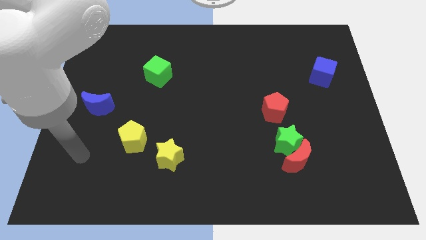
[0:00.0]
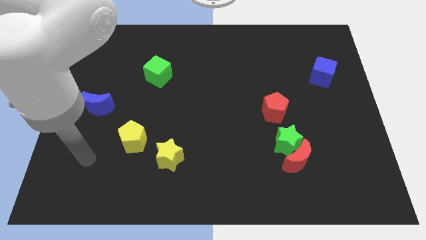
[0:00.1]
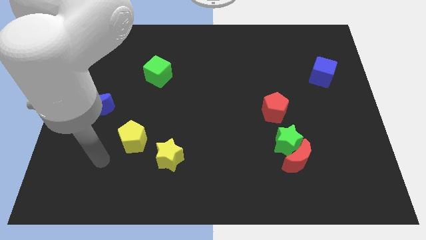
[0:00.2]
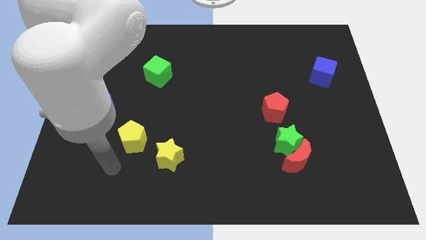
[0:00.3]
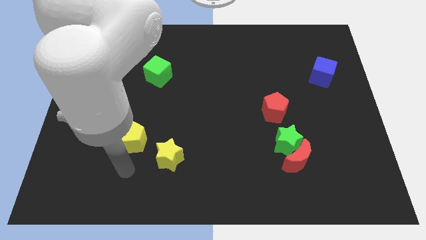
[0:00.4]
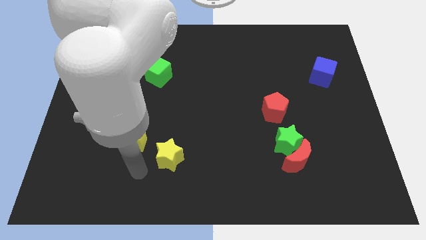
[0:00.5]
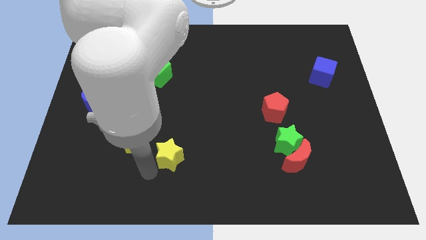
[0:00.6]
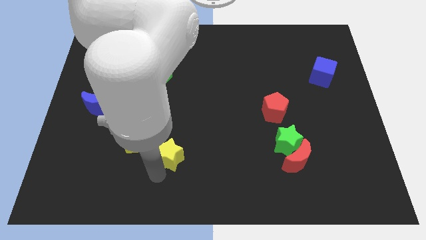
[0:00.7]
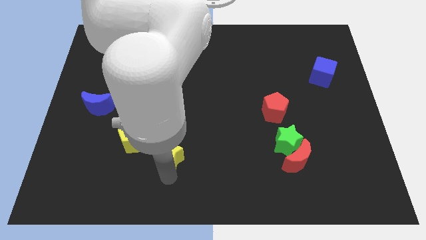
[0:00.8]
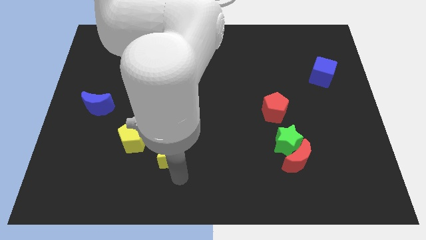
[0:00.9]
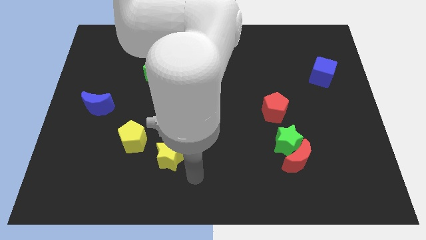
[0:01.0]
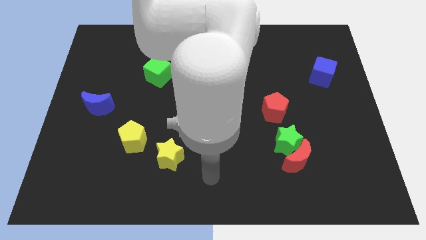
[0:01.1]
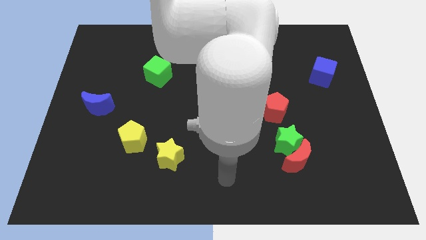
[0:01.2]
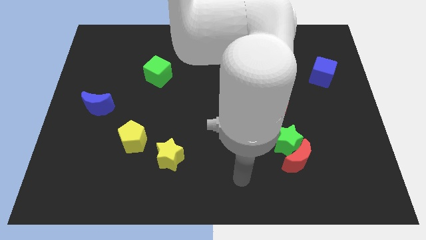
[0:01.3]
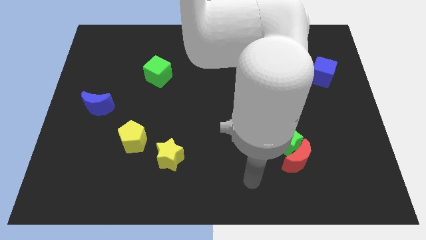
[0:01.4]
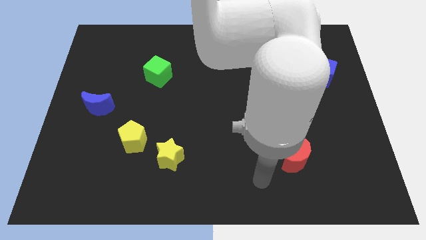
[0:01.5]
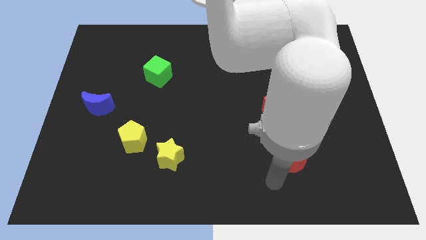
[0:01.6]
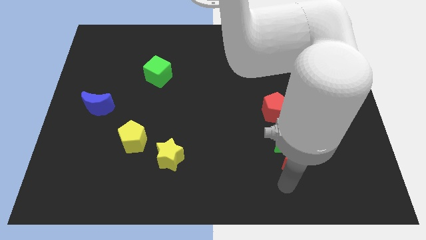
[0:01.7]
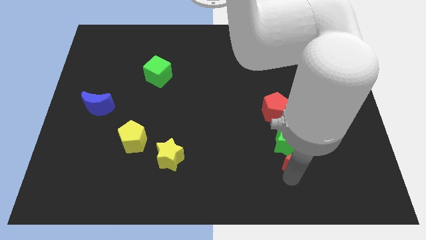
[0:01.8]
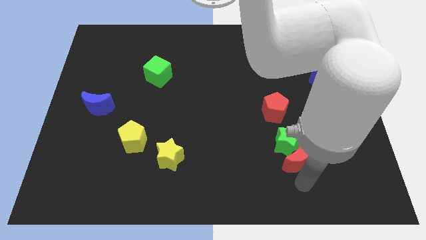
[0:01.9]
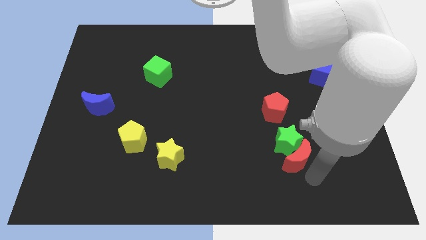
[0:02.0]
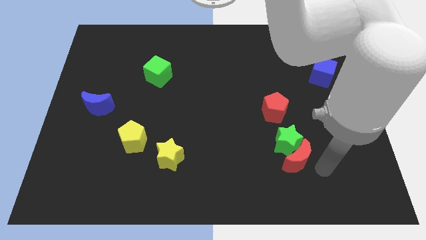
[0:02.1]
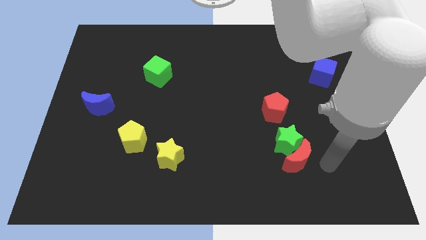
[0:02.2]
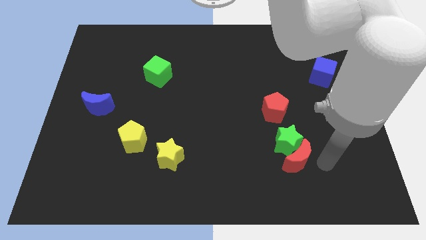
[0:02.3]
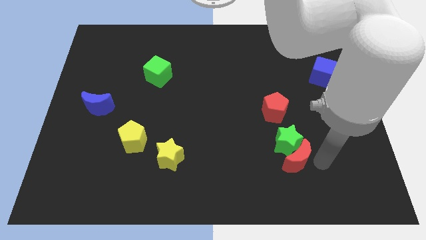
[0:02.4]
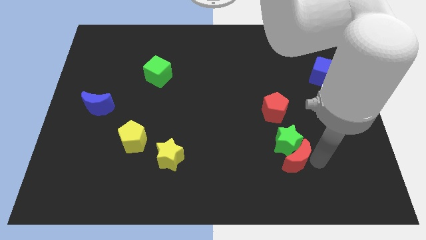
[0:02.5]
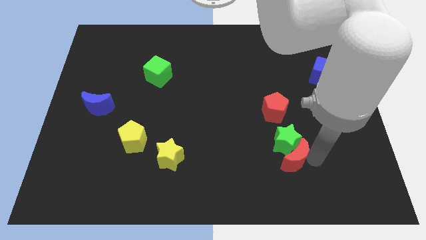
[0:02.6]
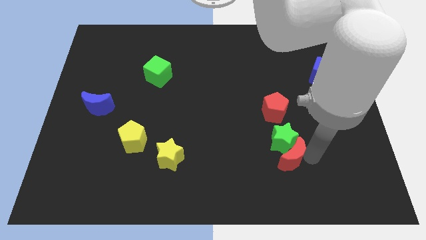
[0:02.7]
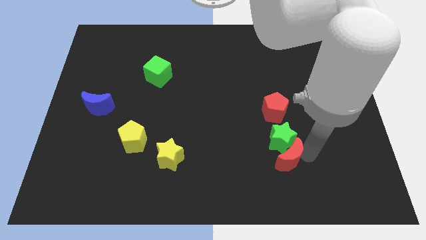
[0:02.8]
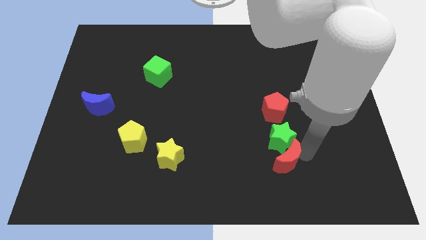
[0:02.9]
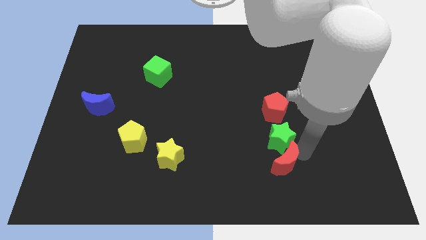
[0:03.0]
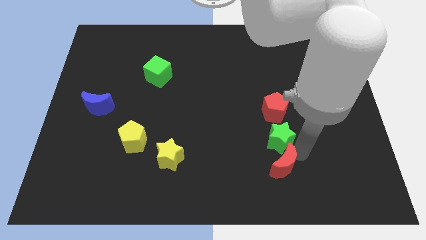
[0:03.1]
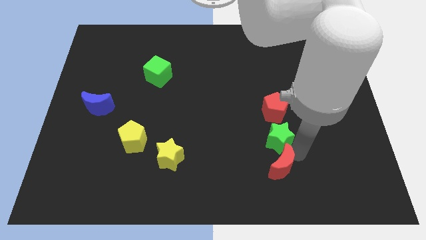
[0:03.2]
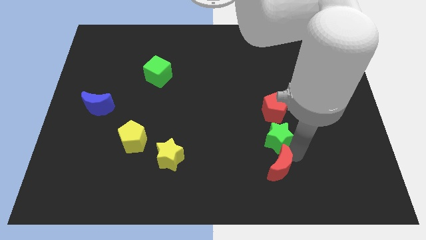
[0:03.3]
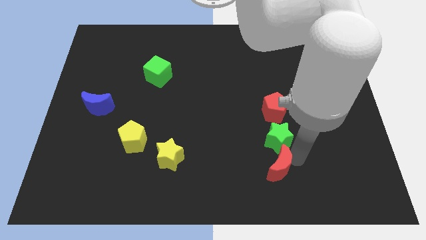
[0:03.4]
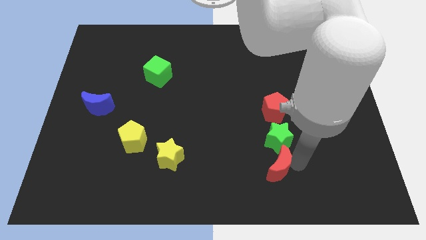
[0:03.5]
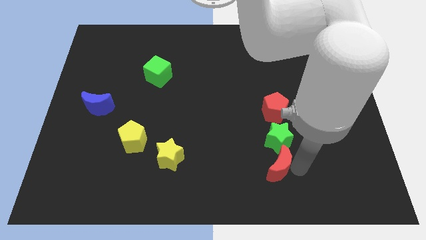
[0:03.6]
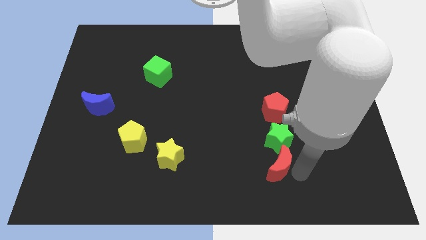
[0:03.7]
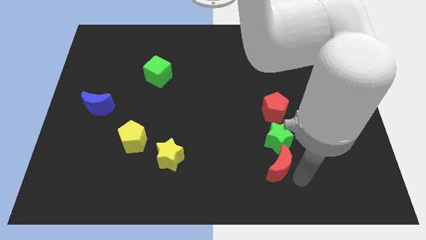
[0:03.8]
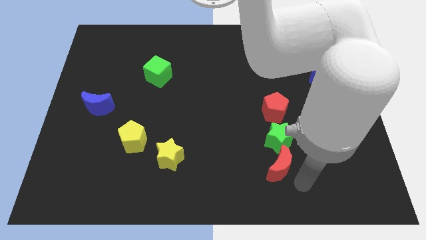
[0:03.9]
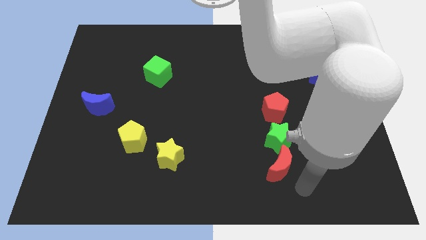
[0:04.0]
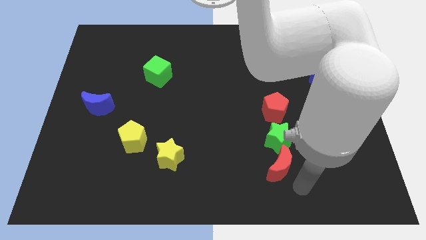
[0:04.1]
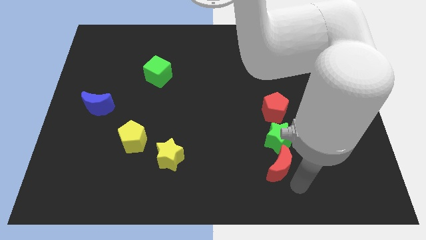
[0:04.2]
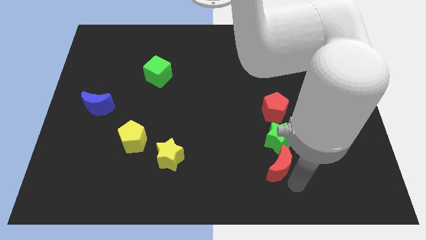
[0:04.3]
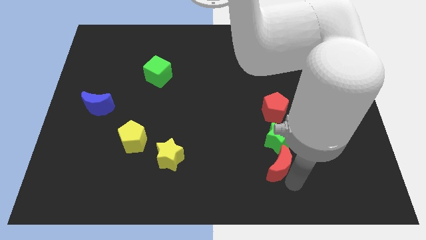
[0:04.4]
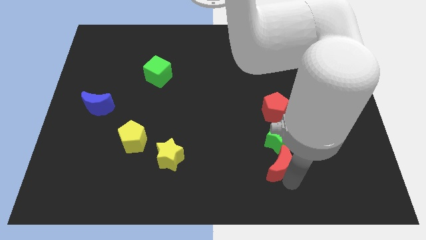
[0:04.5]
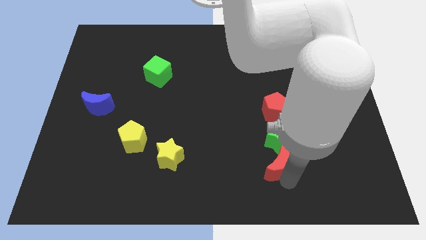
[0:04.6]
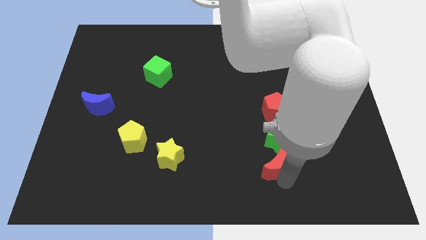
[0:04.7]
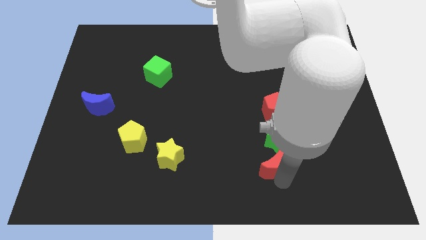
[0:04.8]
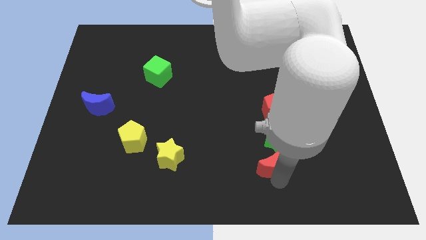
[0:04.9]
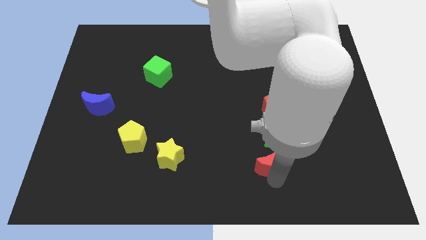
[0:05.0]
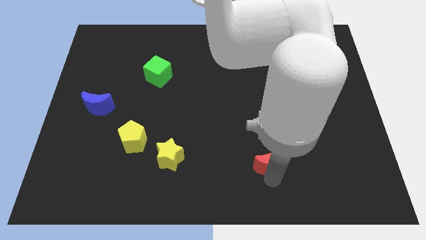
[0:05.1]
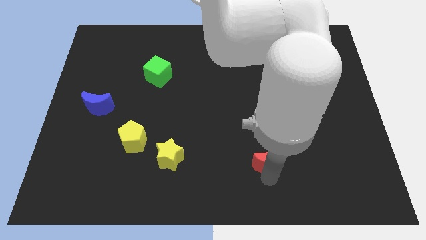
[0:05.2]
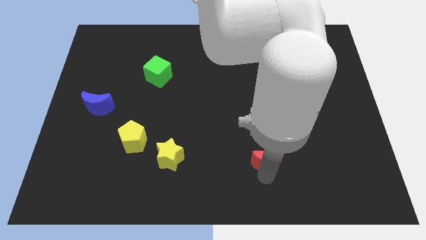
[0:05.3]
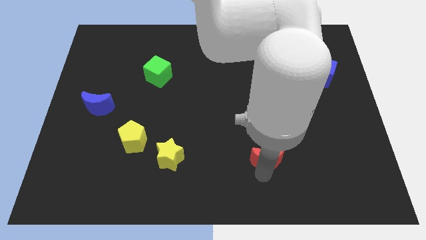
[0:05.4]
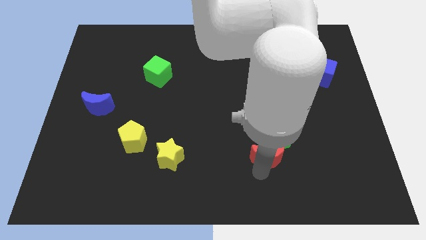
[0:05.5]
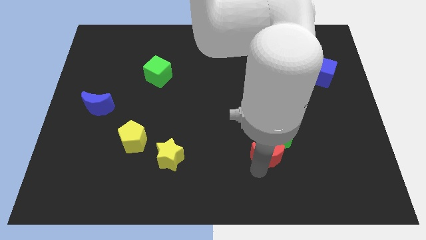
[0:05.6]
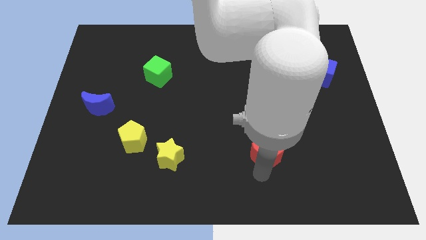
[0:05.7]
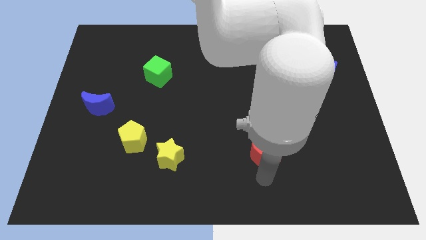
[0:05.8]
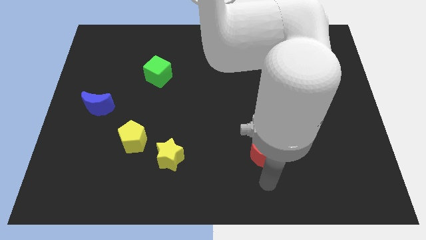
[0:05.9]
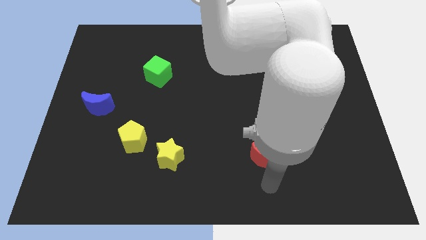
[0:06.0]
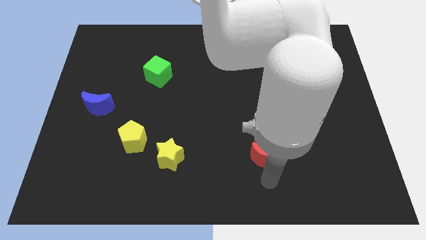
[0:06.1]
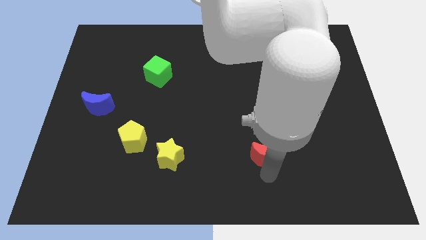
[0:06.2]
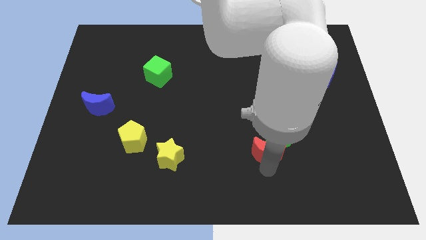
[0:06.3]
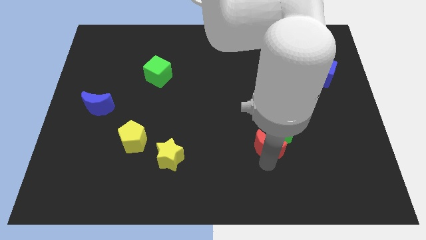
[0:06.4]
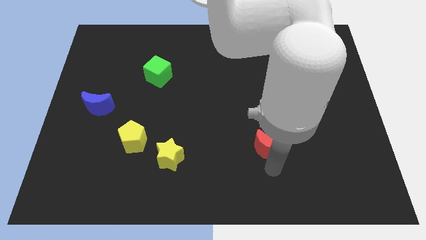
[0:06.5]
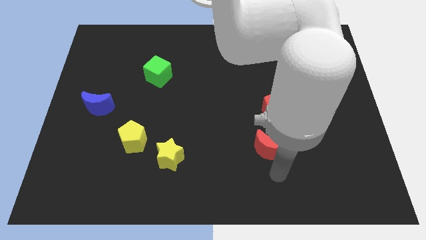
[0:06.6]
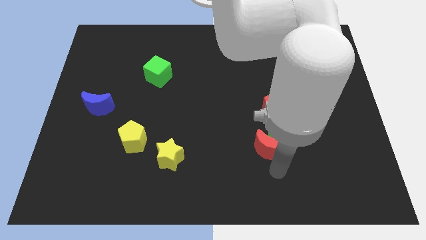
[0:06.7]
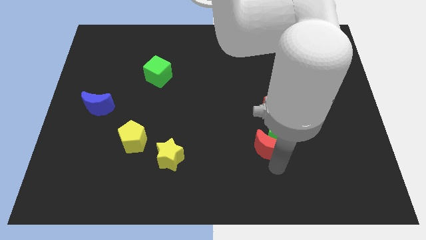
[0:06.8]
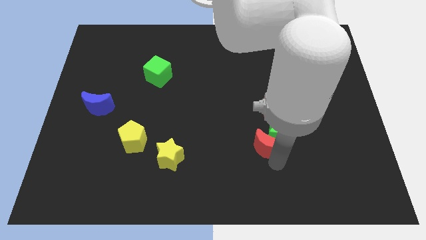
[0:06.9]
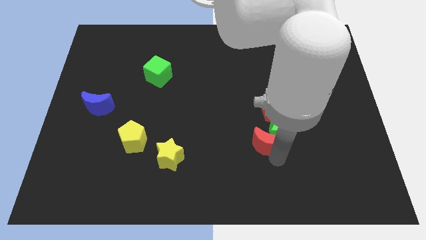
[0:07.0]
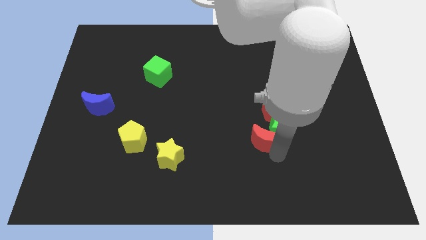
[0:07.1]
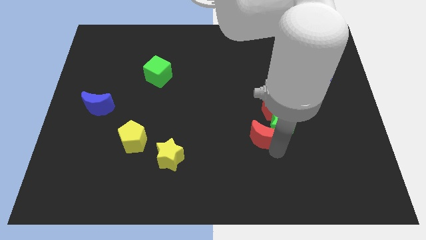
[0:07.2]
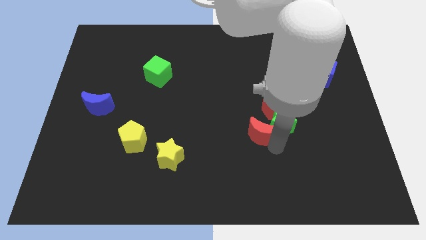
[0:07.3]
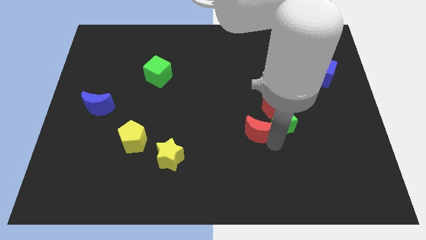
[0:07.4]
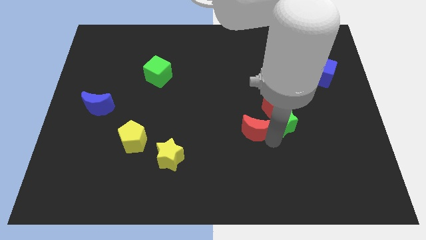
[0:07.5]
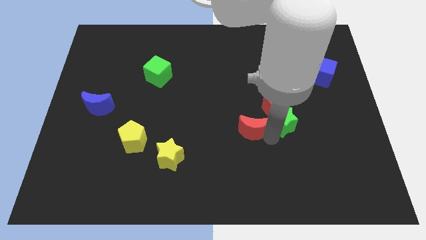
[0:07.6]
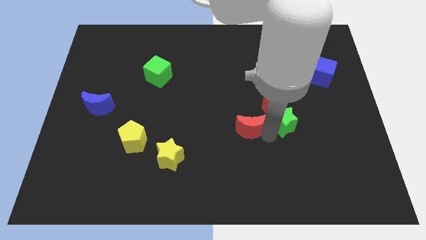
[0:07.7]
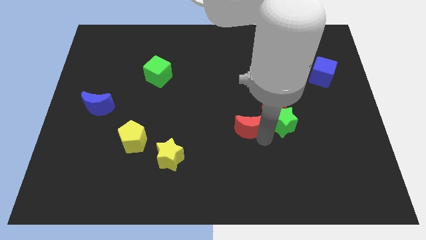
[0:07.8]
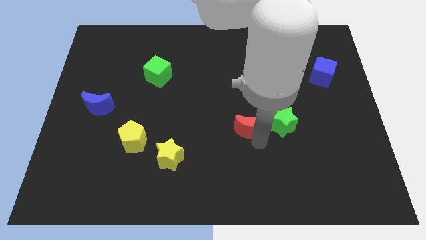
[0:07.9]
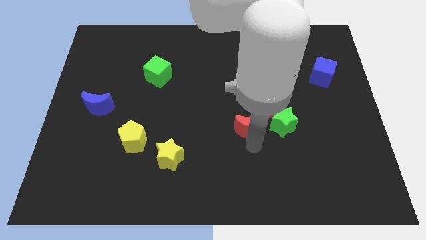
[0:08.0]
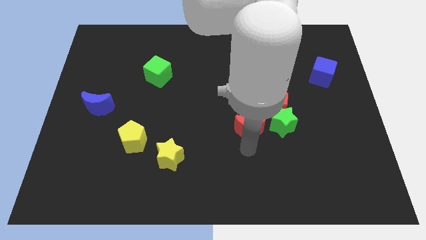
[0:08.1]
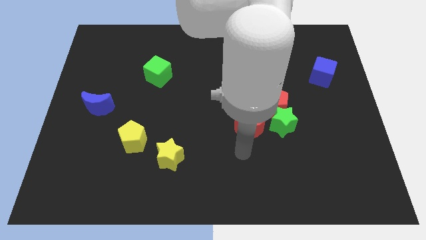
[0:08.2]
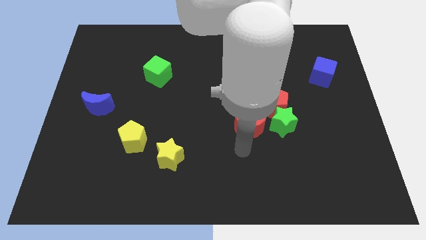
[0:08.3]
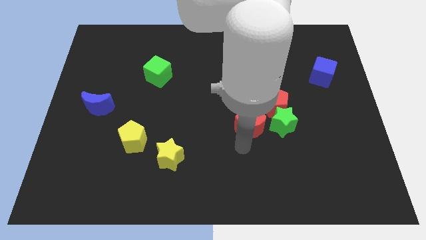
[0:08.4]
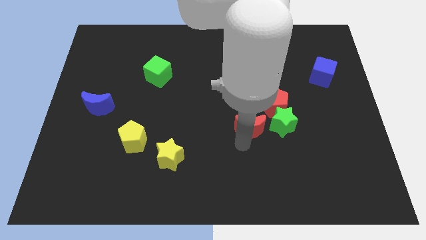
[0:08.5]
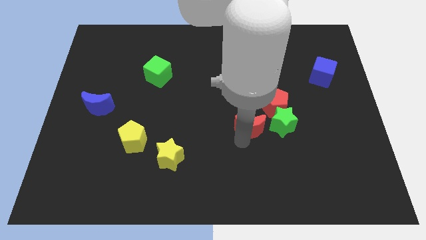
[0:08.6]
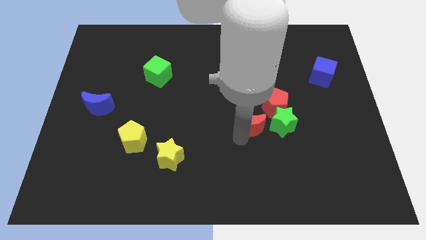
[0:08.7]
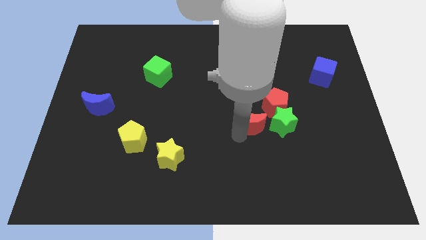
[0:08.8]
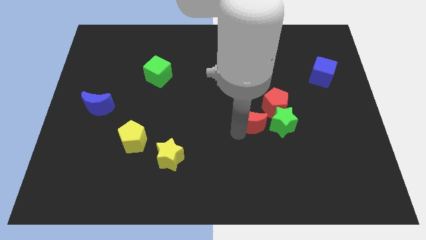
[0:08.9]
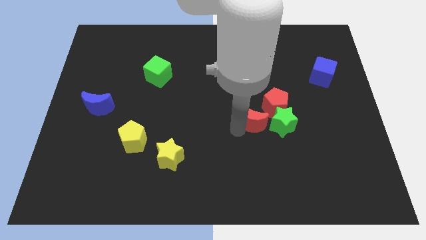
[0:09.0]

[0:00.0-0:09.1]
slide the red moon diagonally up and to the left of the green star
